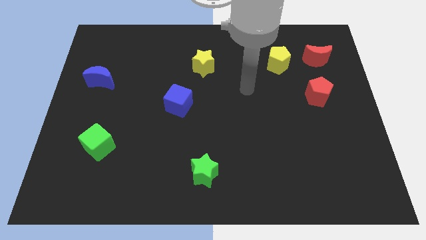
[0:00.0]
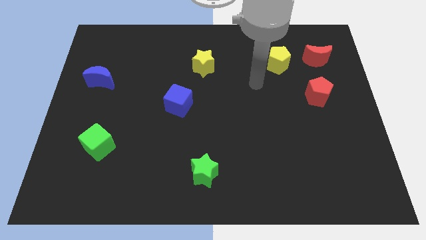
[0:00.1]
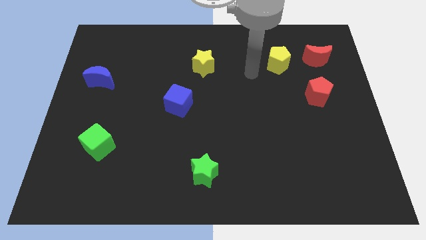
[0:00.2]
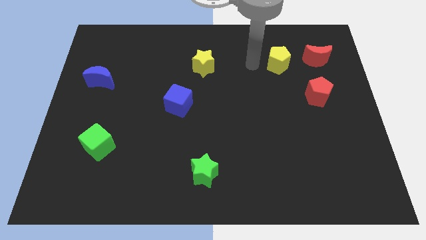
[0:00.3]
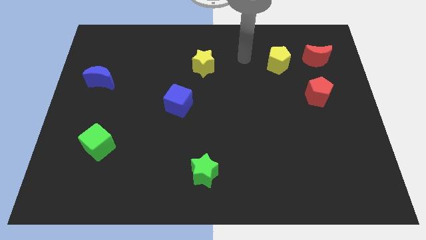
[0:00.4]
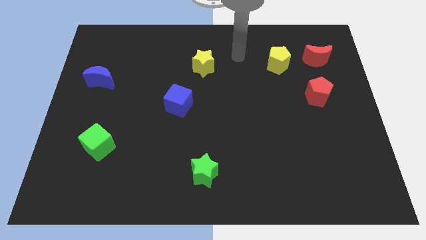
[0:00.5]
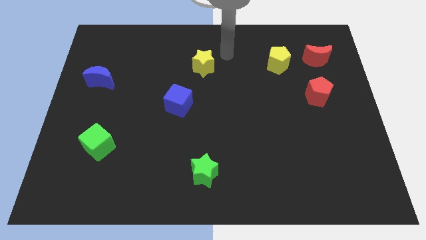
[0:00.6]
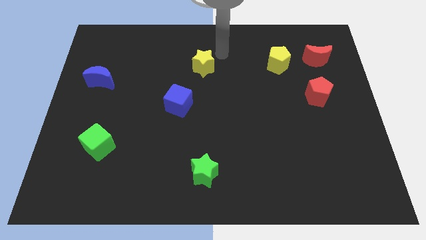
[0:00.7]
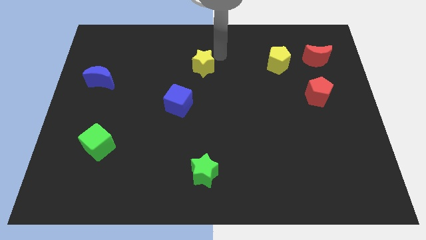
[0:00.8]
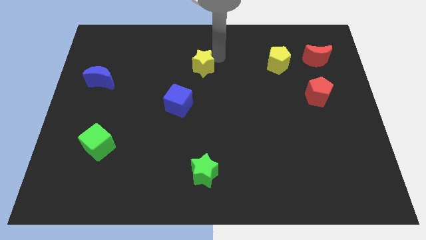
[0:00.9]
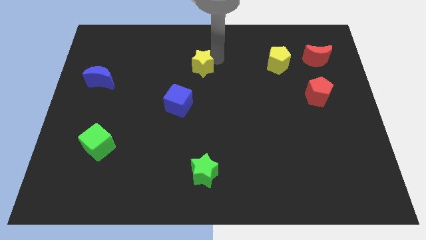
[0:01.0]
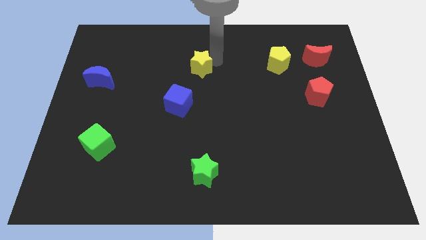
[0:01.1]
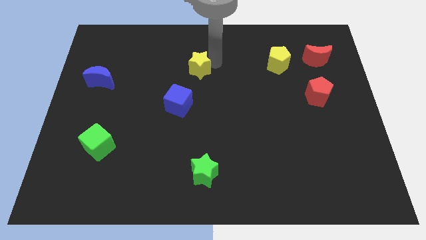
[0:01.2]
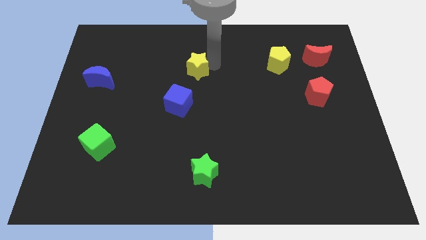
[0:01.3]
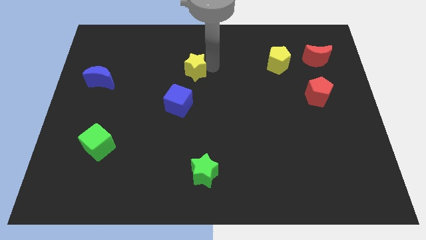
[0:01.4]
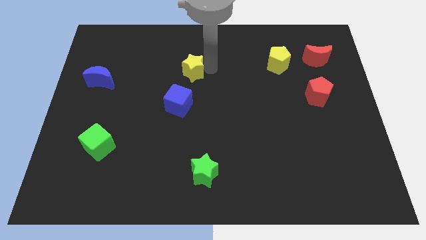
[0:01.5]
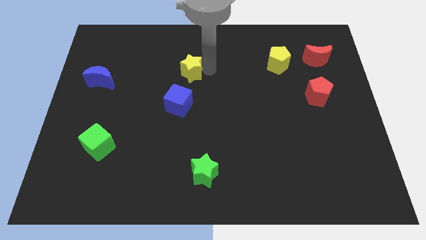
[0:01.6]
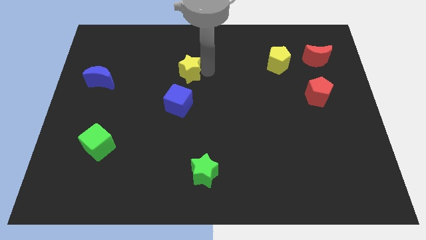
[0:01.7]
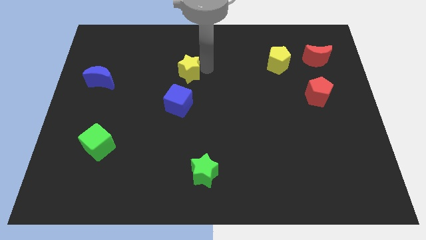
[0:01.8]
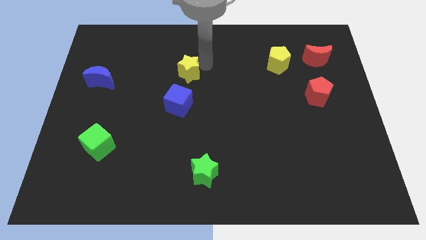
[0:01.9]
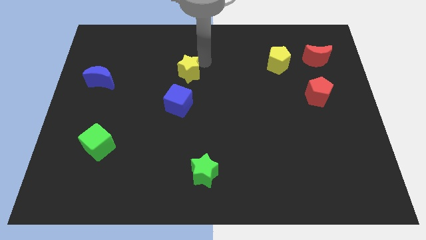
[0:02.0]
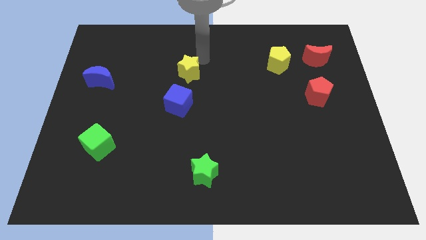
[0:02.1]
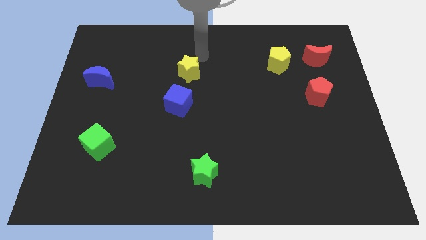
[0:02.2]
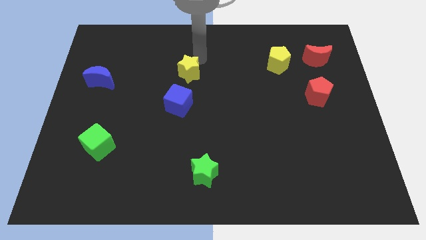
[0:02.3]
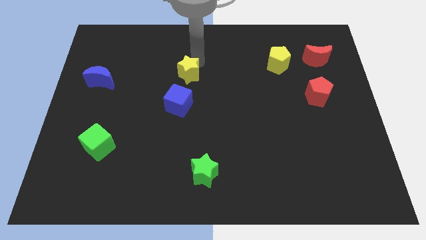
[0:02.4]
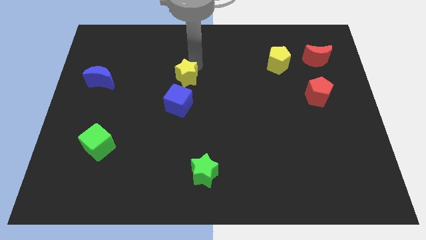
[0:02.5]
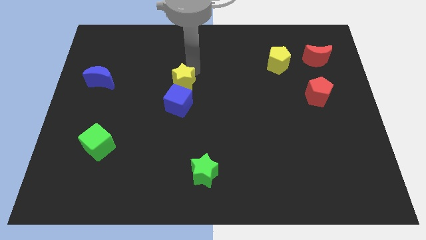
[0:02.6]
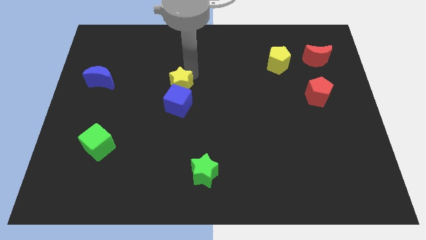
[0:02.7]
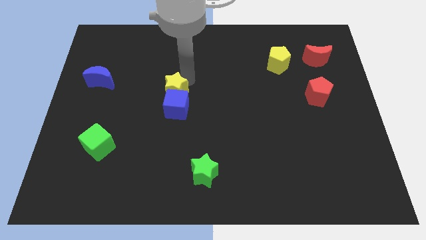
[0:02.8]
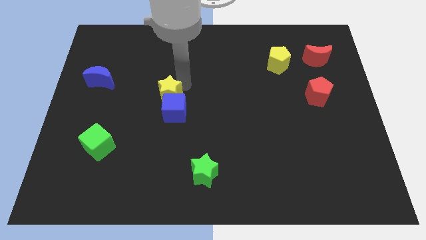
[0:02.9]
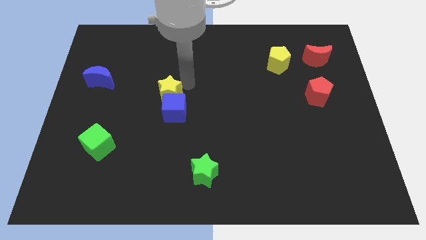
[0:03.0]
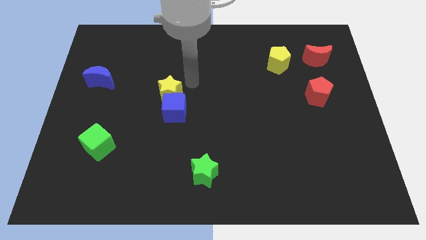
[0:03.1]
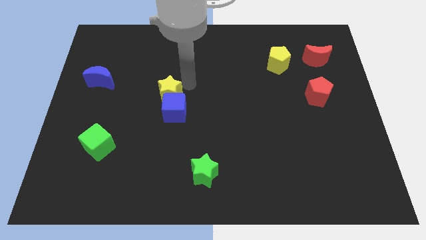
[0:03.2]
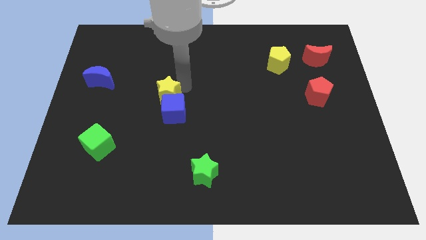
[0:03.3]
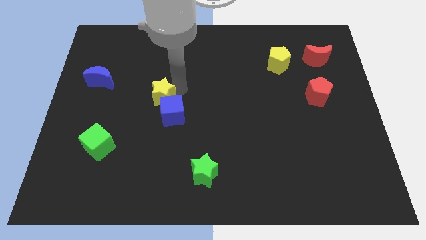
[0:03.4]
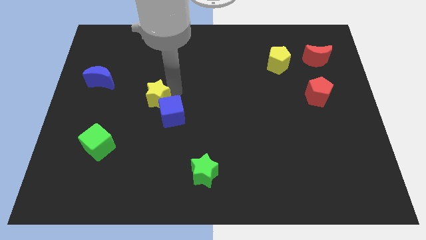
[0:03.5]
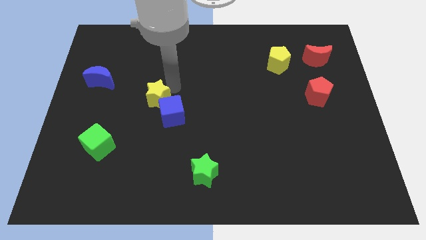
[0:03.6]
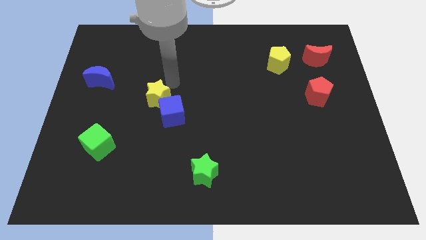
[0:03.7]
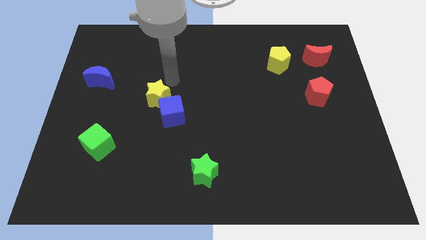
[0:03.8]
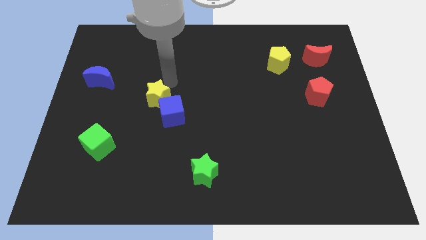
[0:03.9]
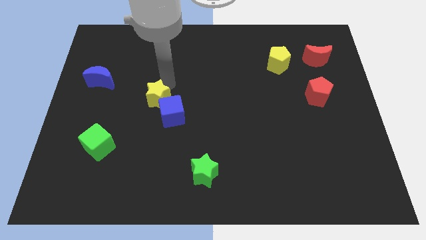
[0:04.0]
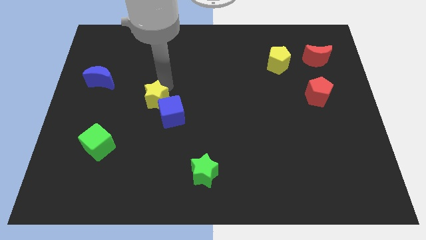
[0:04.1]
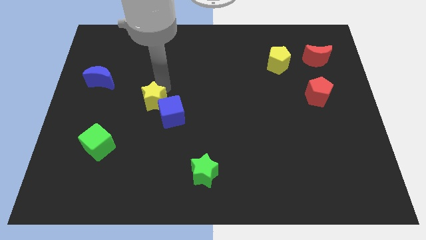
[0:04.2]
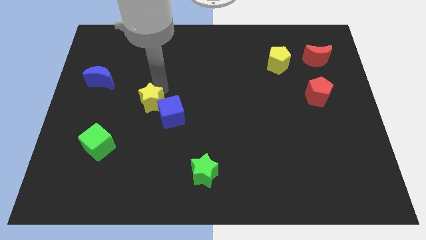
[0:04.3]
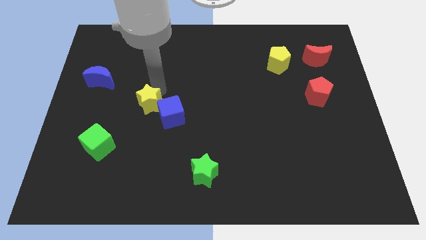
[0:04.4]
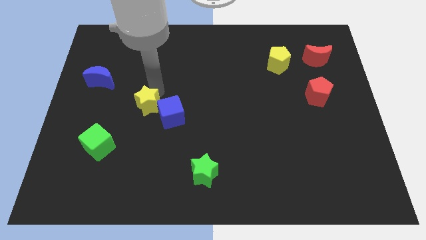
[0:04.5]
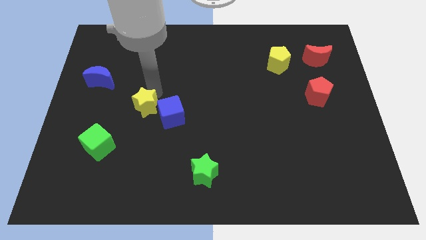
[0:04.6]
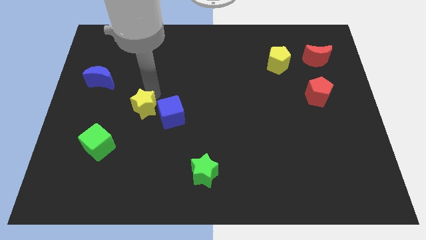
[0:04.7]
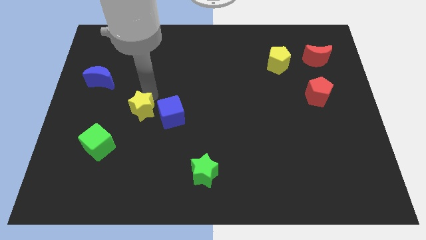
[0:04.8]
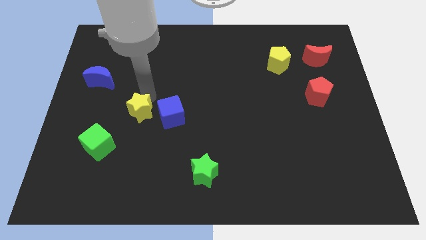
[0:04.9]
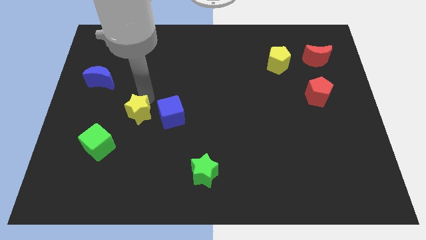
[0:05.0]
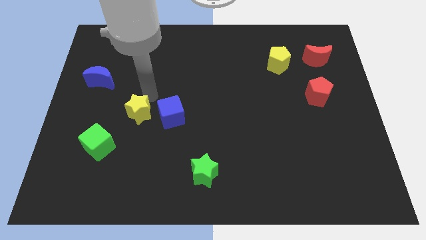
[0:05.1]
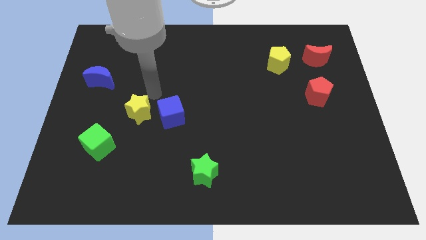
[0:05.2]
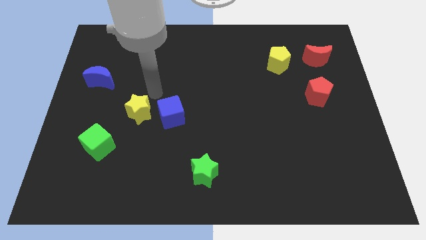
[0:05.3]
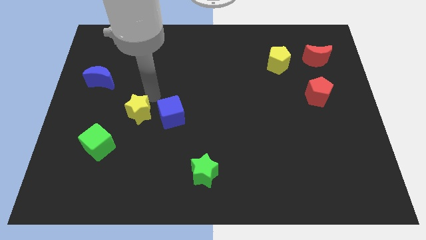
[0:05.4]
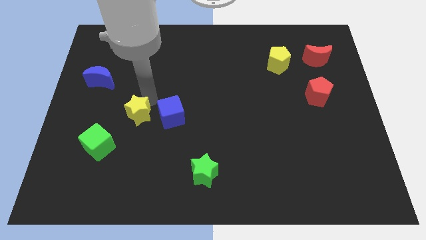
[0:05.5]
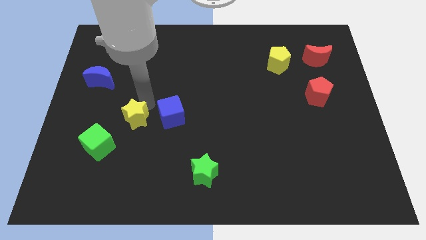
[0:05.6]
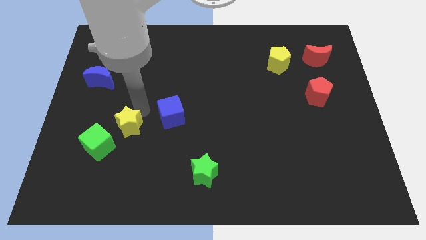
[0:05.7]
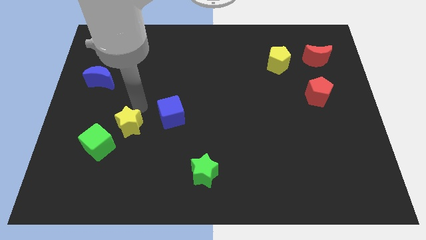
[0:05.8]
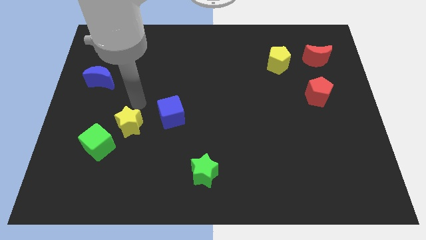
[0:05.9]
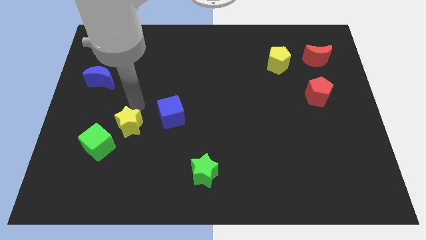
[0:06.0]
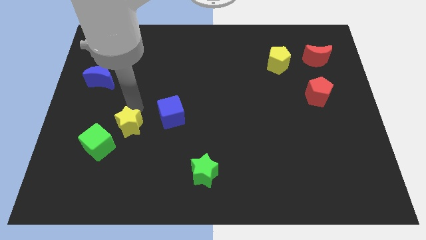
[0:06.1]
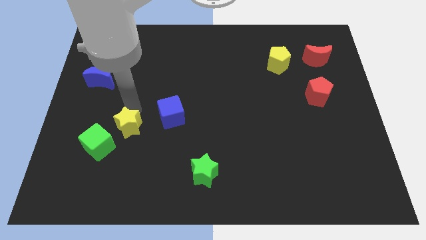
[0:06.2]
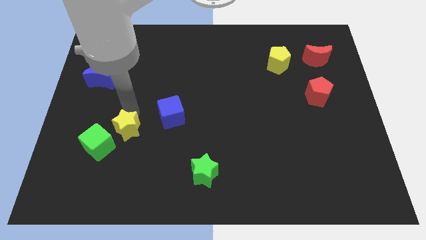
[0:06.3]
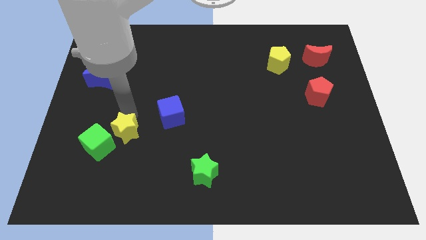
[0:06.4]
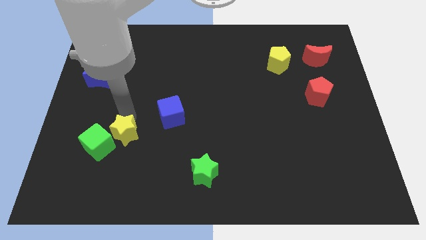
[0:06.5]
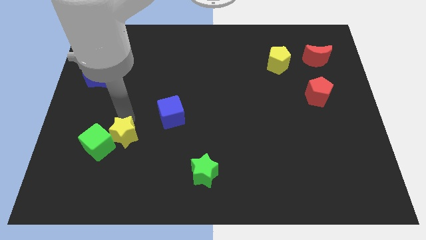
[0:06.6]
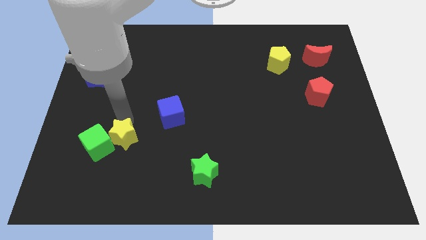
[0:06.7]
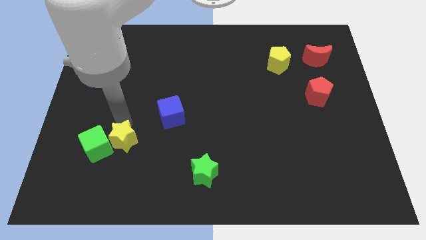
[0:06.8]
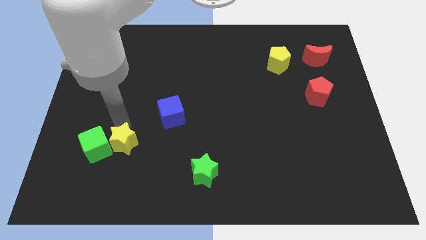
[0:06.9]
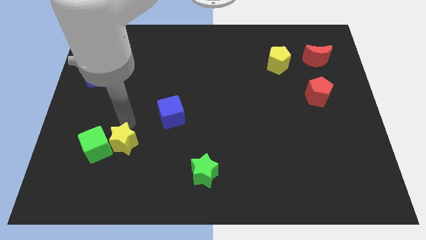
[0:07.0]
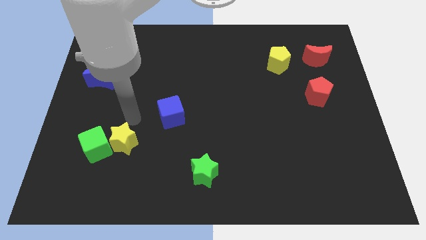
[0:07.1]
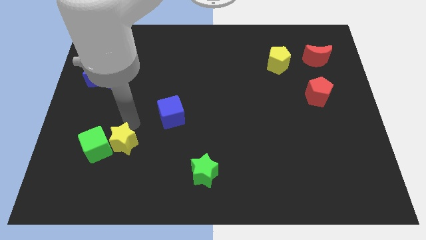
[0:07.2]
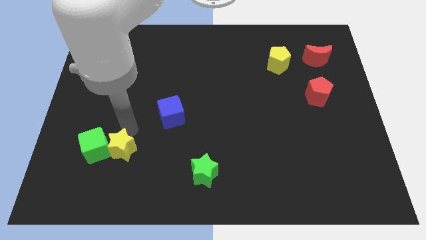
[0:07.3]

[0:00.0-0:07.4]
push the yellow star to the bottom right of the green cube

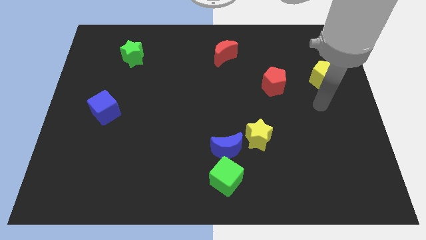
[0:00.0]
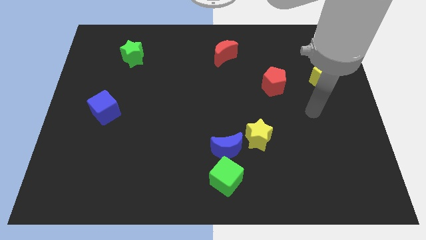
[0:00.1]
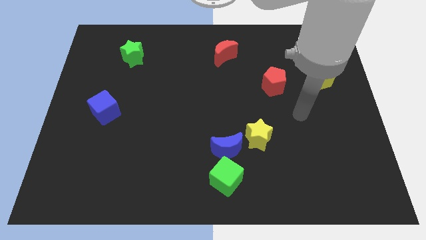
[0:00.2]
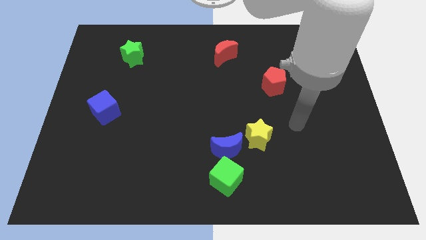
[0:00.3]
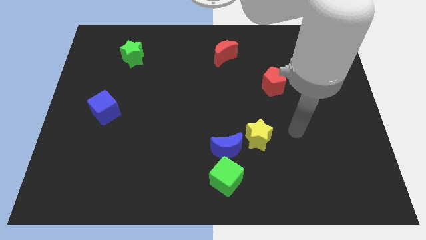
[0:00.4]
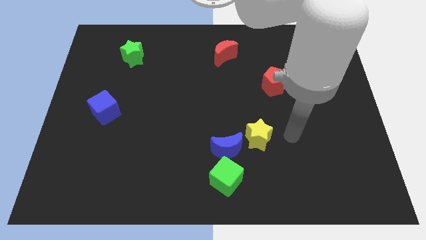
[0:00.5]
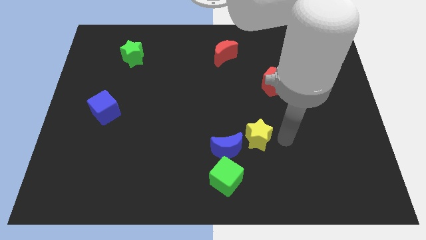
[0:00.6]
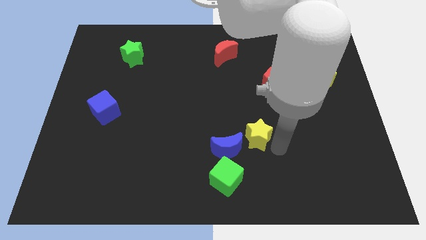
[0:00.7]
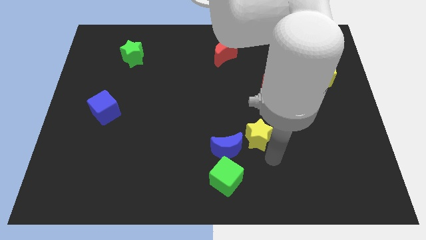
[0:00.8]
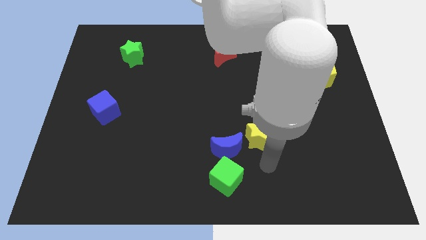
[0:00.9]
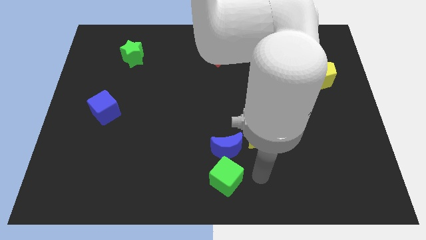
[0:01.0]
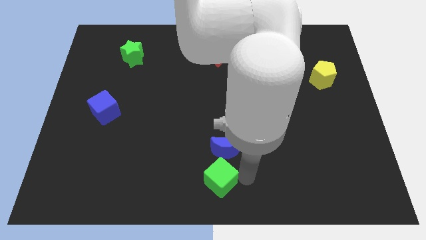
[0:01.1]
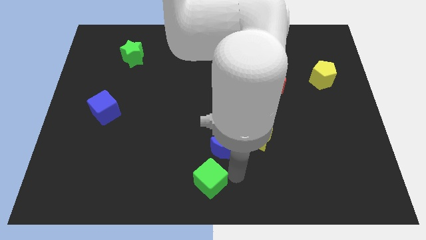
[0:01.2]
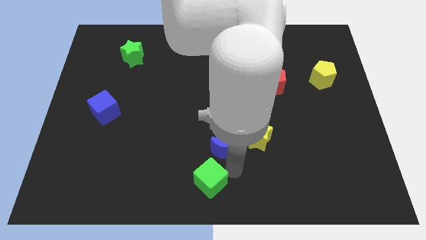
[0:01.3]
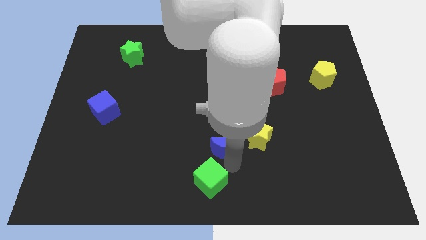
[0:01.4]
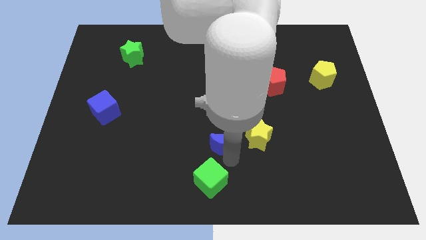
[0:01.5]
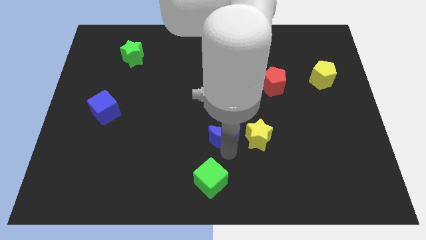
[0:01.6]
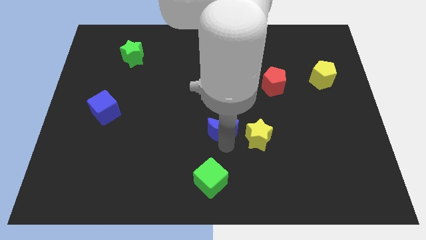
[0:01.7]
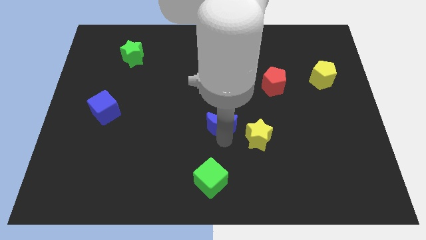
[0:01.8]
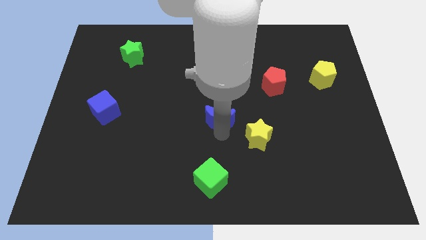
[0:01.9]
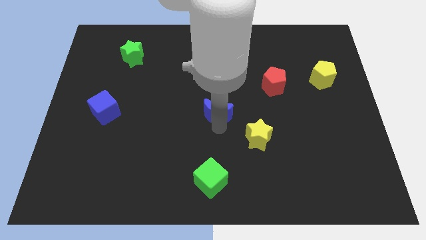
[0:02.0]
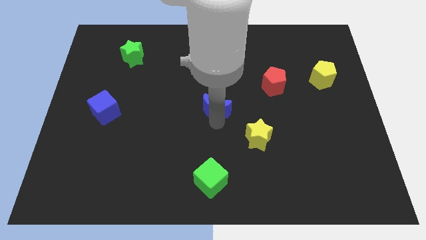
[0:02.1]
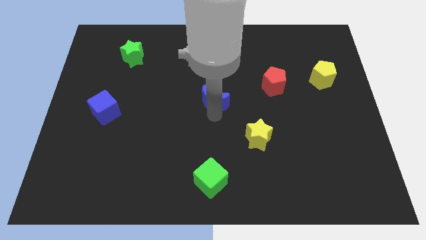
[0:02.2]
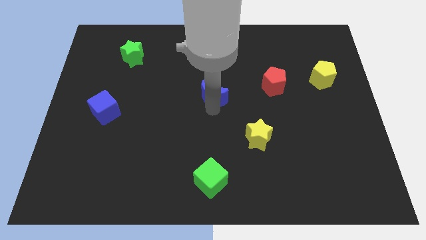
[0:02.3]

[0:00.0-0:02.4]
move the blue moon to the bottom of the red moon
